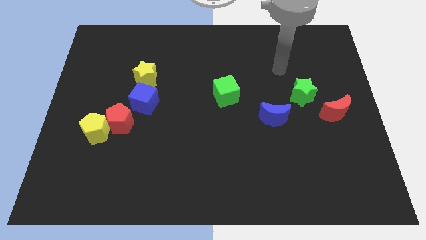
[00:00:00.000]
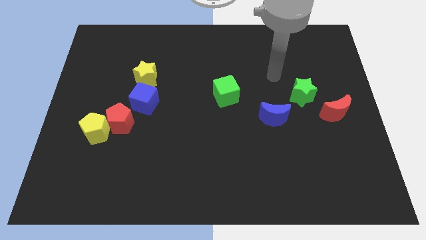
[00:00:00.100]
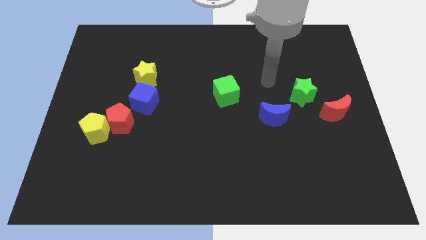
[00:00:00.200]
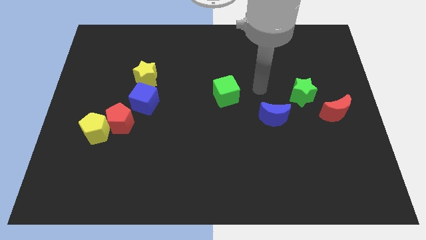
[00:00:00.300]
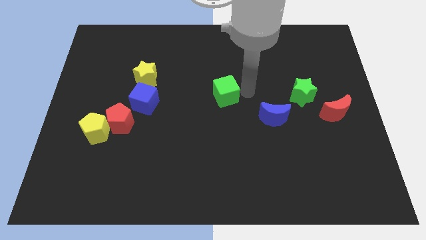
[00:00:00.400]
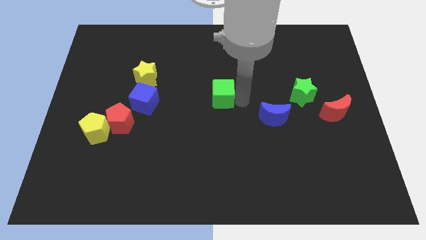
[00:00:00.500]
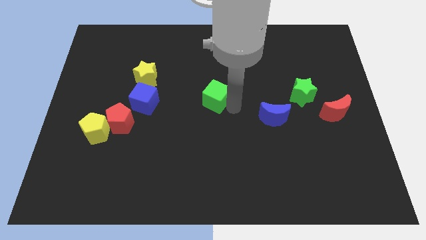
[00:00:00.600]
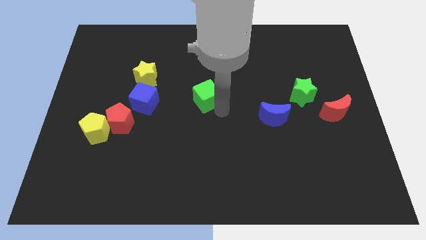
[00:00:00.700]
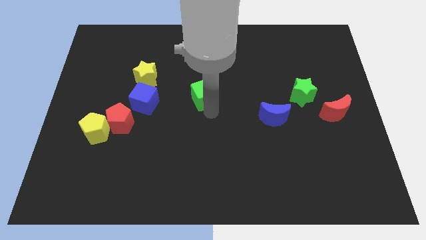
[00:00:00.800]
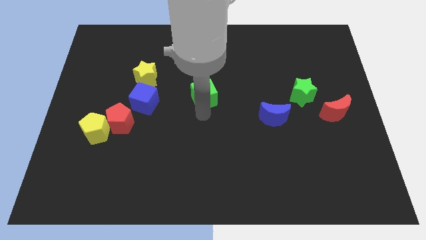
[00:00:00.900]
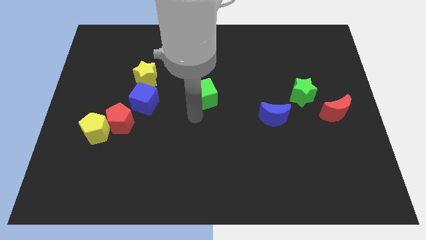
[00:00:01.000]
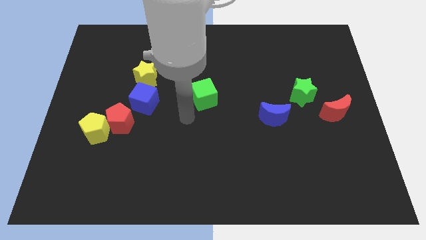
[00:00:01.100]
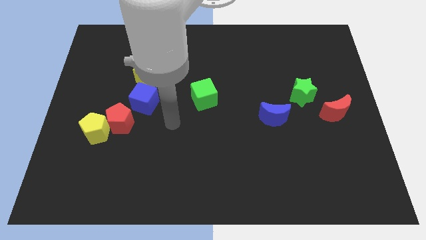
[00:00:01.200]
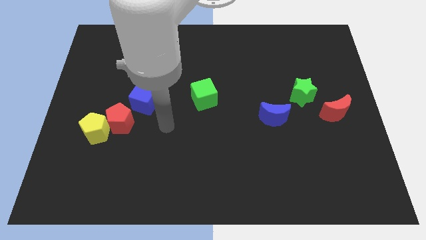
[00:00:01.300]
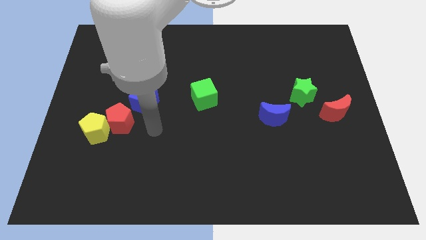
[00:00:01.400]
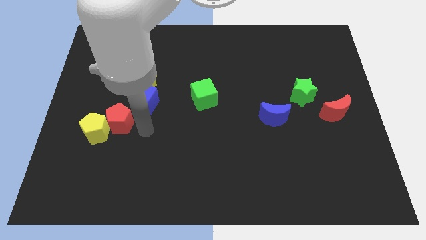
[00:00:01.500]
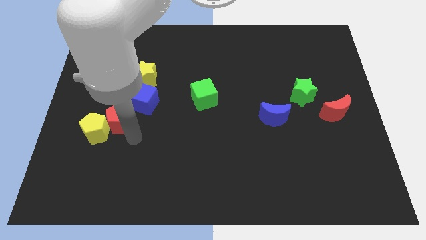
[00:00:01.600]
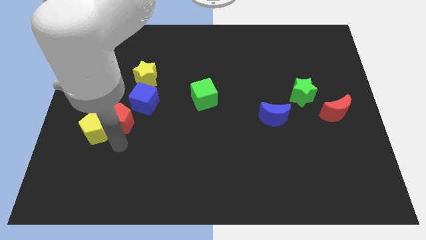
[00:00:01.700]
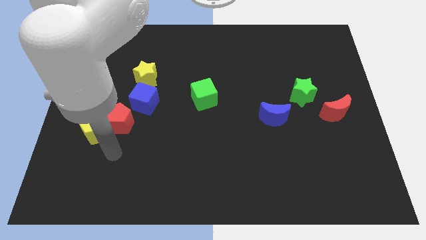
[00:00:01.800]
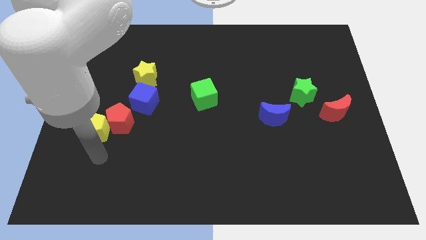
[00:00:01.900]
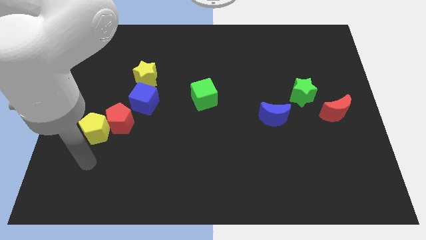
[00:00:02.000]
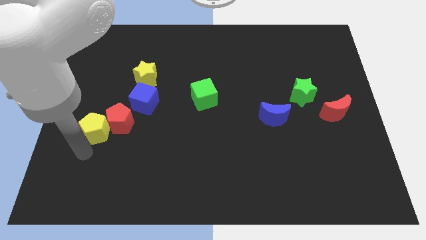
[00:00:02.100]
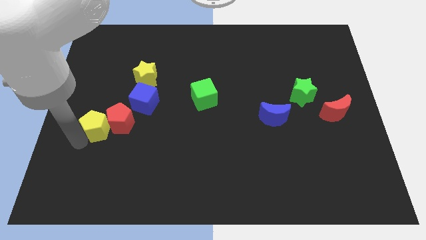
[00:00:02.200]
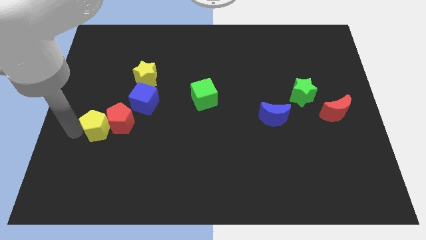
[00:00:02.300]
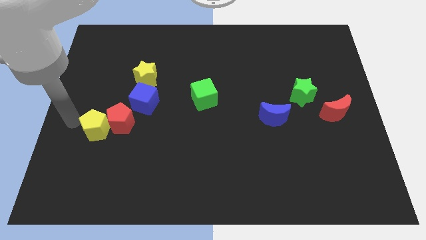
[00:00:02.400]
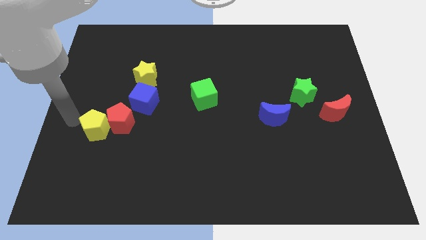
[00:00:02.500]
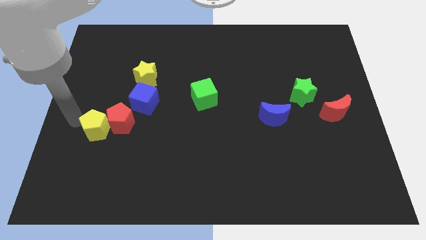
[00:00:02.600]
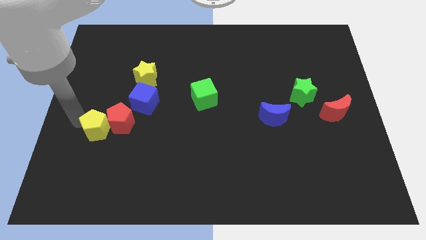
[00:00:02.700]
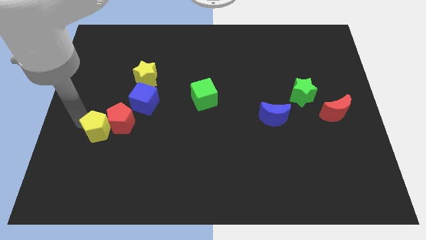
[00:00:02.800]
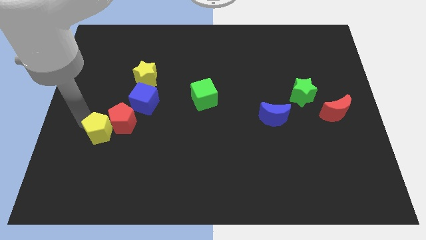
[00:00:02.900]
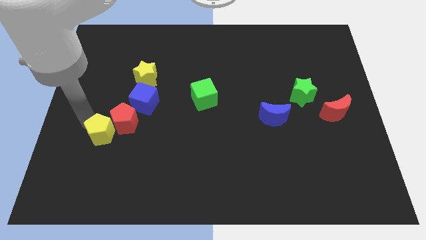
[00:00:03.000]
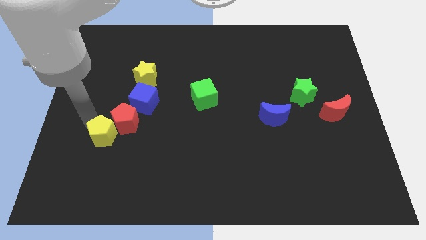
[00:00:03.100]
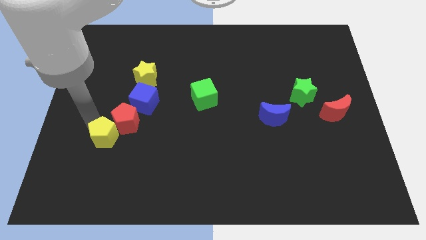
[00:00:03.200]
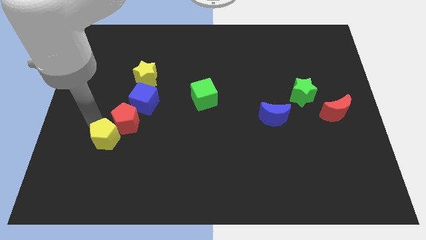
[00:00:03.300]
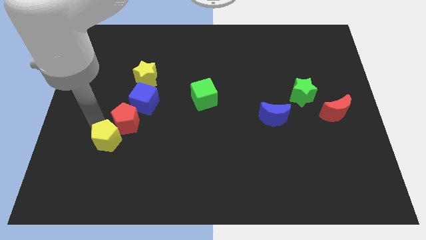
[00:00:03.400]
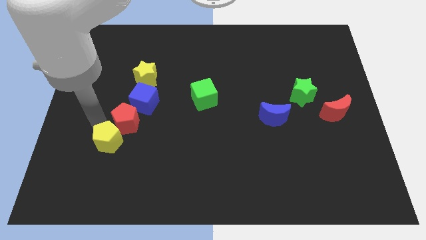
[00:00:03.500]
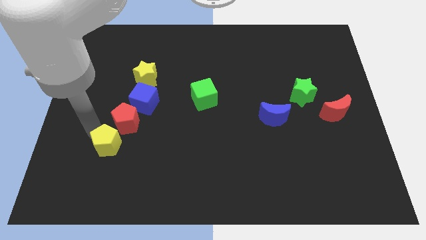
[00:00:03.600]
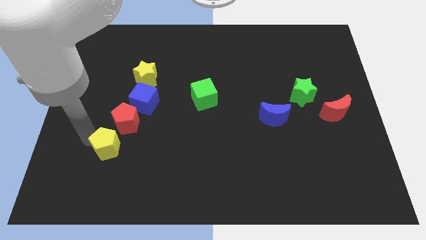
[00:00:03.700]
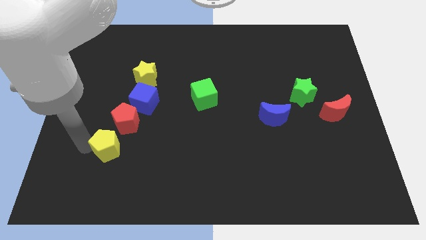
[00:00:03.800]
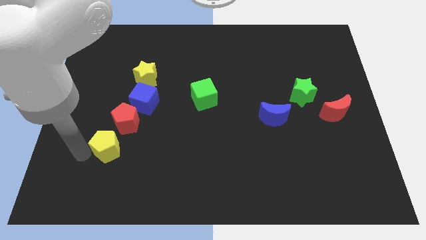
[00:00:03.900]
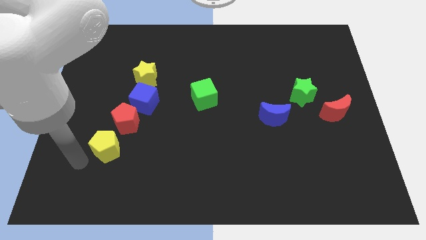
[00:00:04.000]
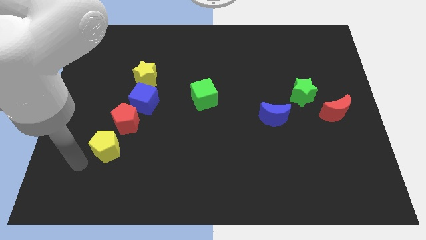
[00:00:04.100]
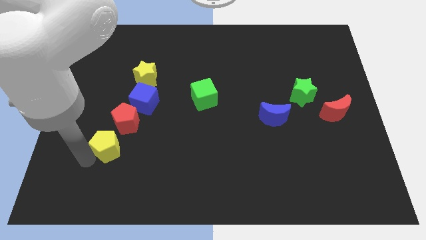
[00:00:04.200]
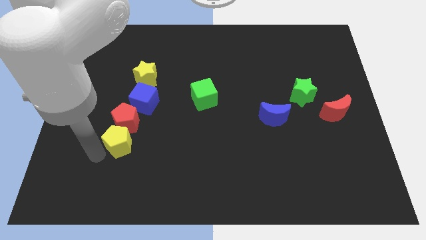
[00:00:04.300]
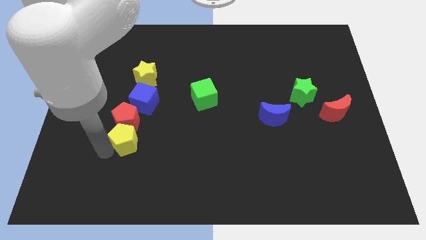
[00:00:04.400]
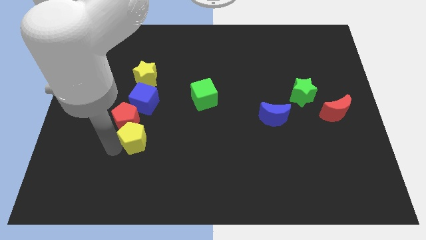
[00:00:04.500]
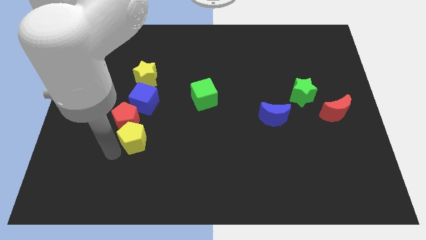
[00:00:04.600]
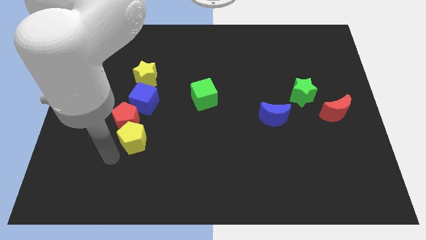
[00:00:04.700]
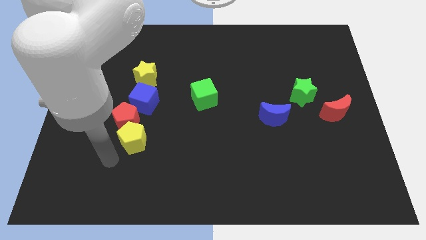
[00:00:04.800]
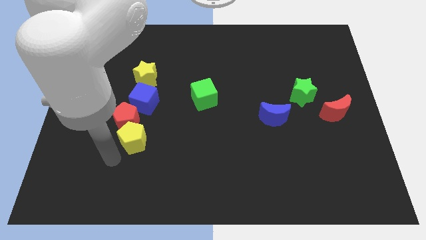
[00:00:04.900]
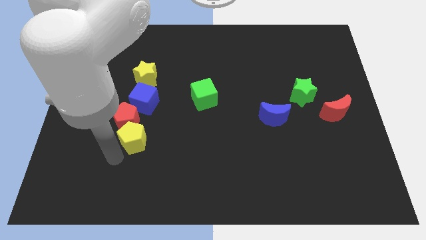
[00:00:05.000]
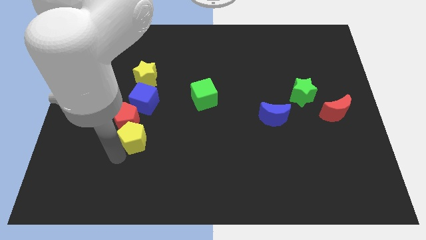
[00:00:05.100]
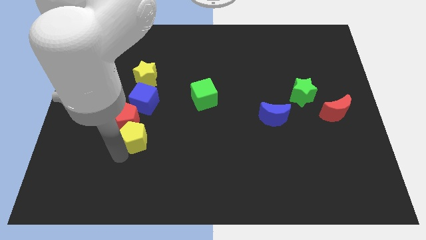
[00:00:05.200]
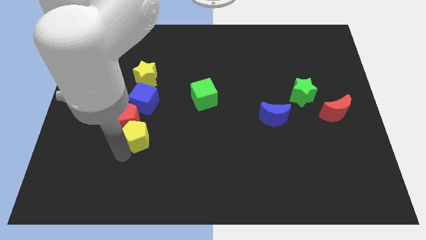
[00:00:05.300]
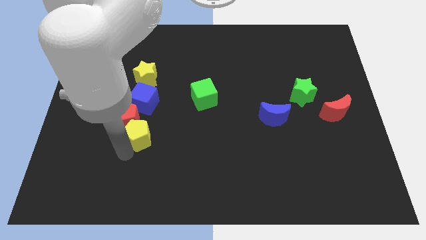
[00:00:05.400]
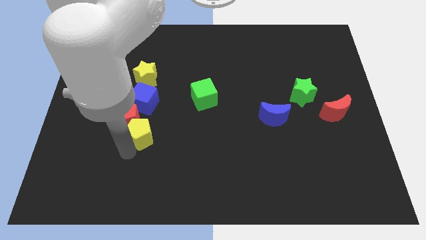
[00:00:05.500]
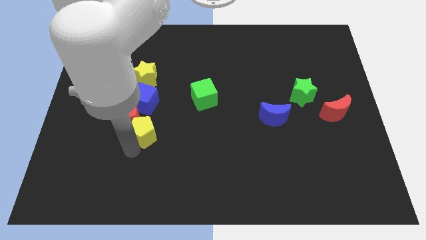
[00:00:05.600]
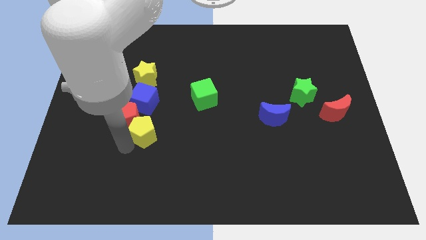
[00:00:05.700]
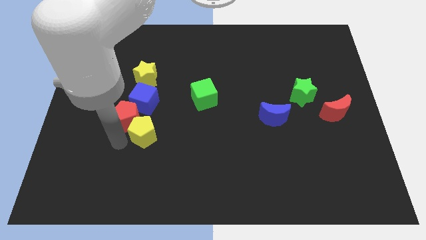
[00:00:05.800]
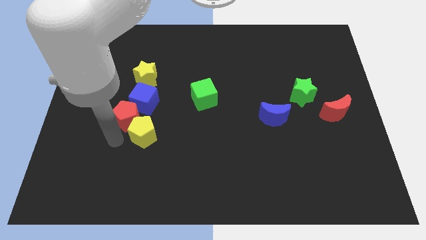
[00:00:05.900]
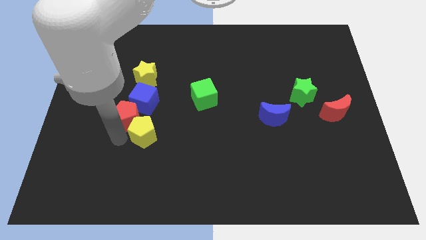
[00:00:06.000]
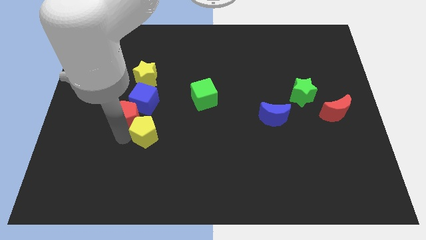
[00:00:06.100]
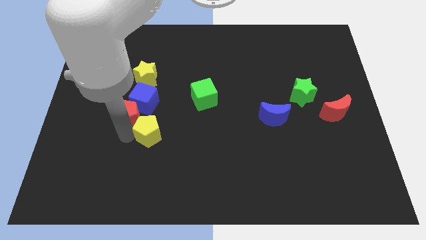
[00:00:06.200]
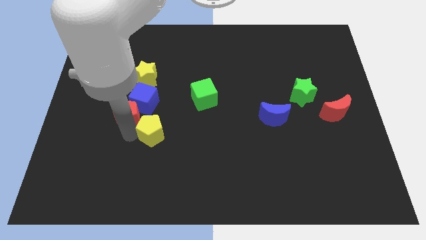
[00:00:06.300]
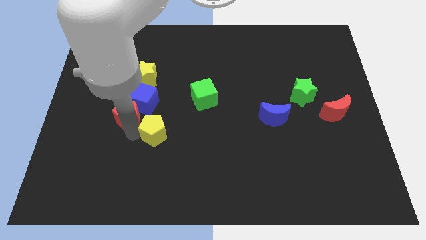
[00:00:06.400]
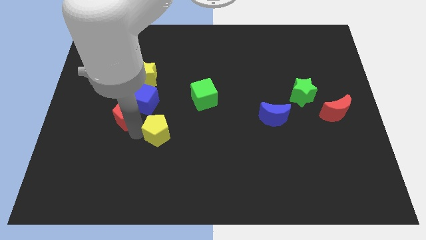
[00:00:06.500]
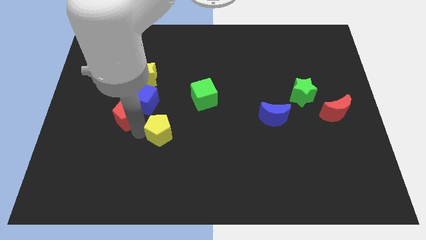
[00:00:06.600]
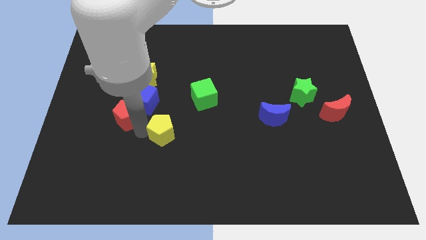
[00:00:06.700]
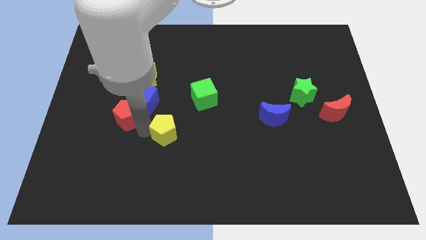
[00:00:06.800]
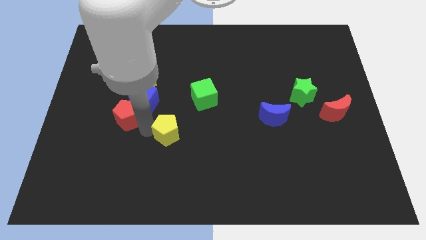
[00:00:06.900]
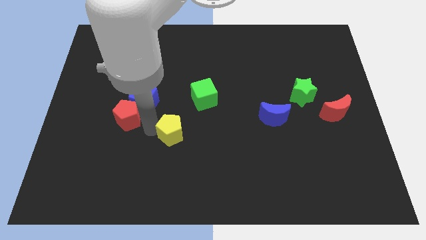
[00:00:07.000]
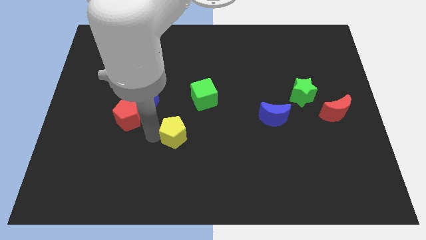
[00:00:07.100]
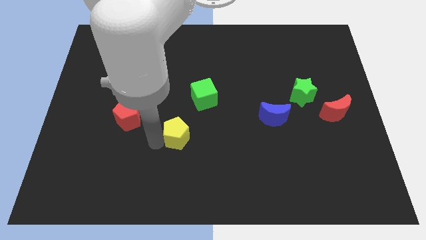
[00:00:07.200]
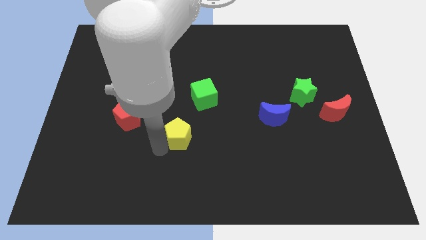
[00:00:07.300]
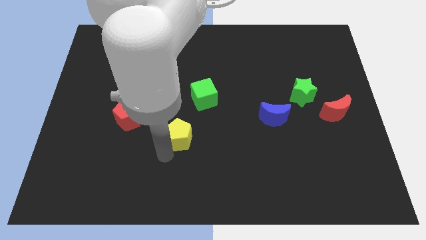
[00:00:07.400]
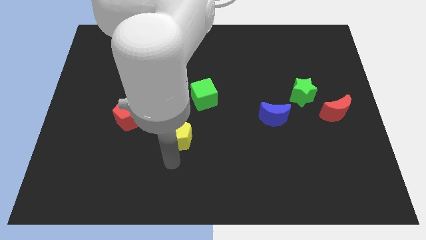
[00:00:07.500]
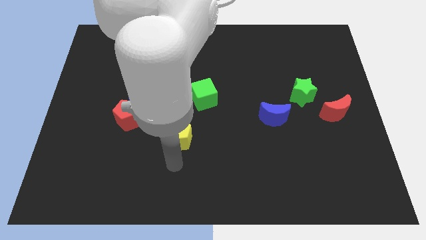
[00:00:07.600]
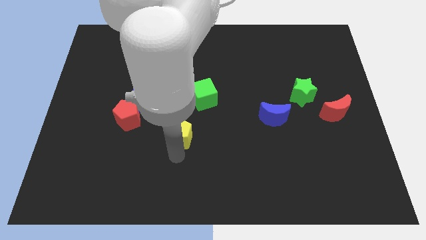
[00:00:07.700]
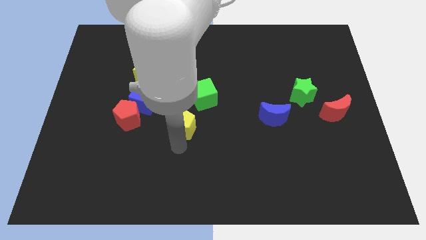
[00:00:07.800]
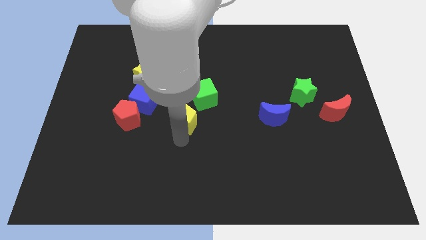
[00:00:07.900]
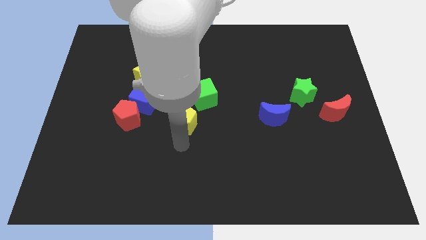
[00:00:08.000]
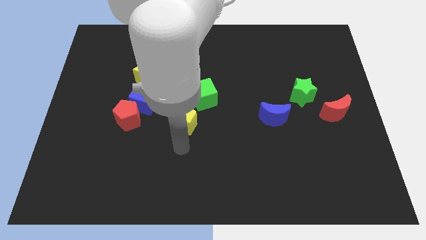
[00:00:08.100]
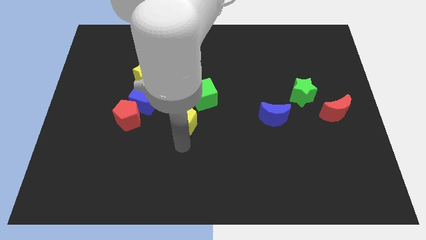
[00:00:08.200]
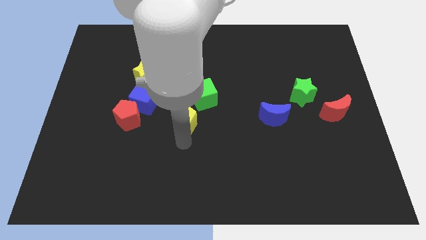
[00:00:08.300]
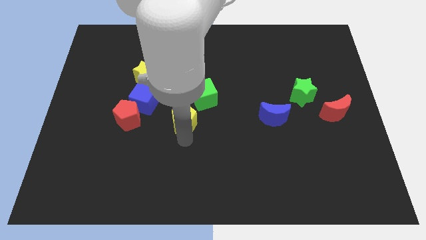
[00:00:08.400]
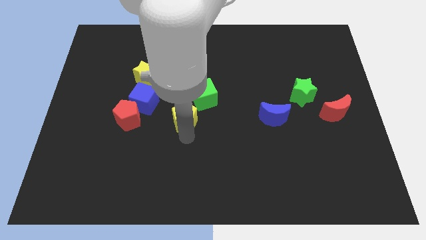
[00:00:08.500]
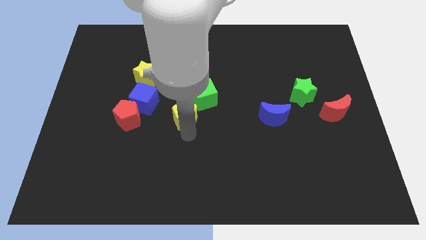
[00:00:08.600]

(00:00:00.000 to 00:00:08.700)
put the yellow pentagon just right of the blue cube
